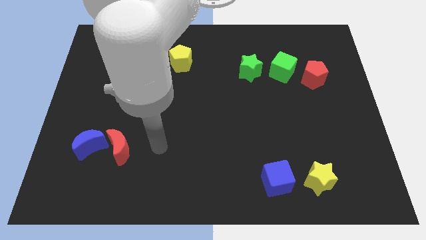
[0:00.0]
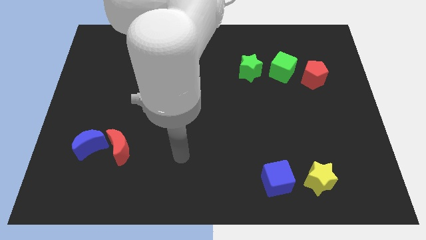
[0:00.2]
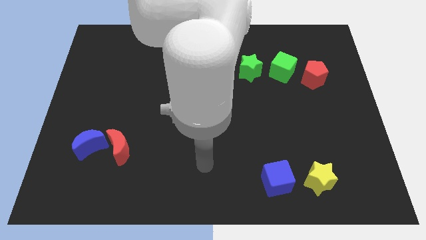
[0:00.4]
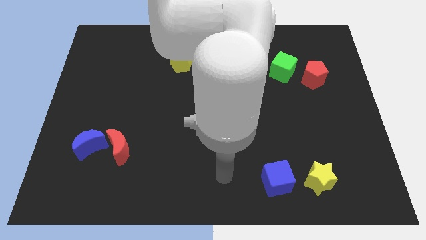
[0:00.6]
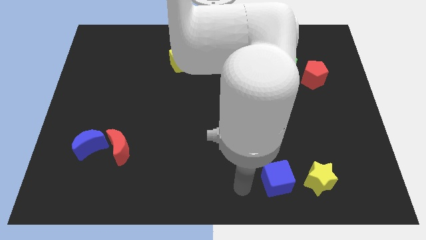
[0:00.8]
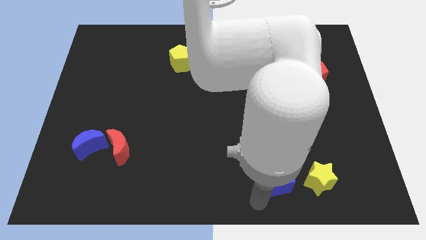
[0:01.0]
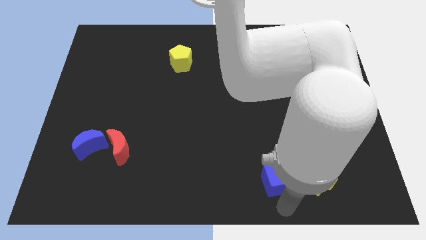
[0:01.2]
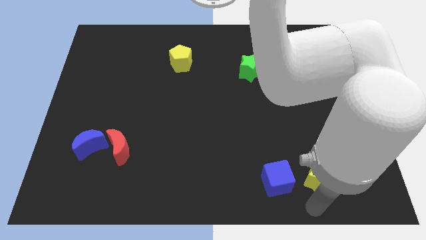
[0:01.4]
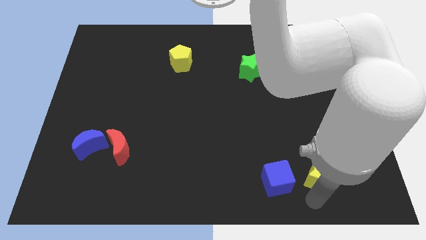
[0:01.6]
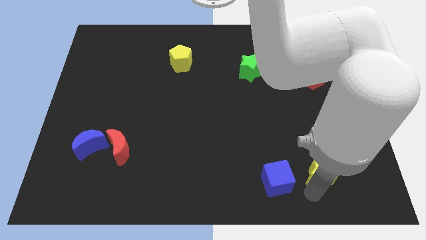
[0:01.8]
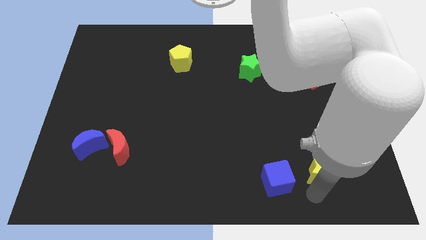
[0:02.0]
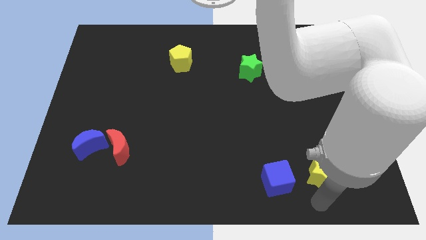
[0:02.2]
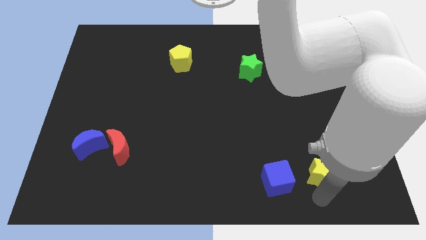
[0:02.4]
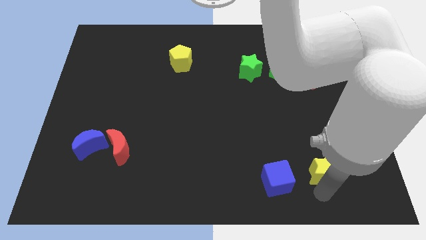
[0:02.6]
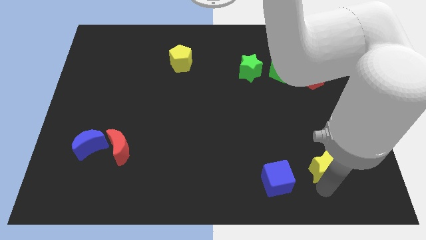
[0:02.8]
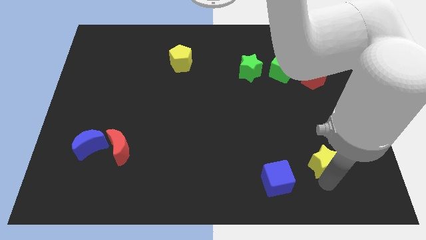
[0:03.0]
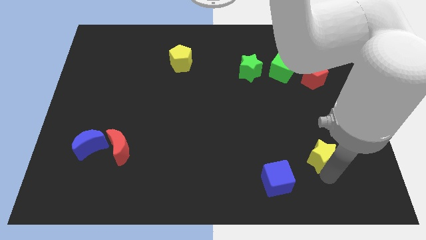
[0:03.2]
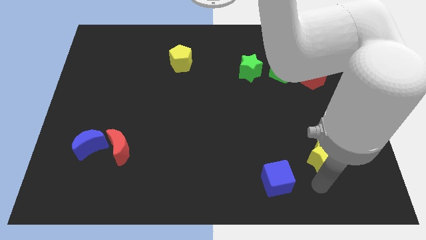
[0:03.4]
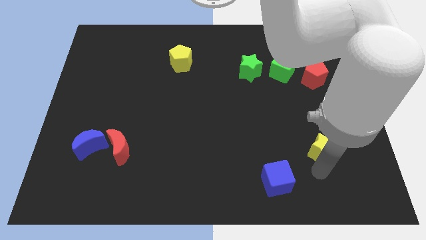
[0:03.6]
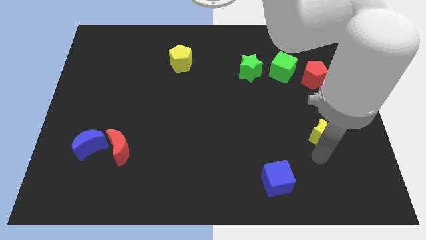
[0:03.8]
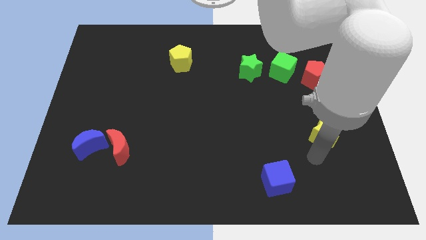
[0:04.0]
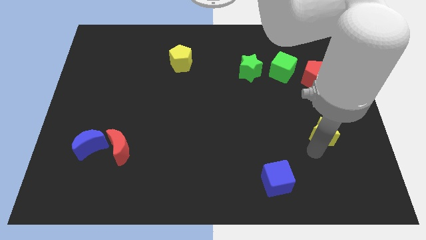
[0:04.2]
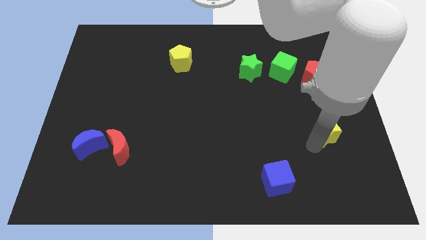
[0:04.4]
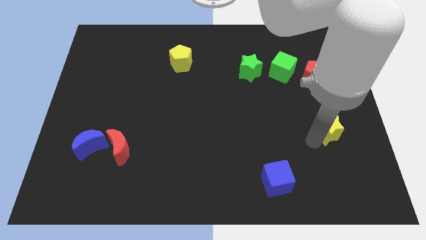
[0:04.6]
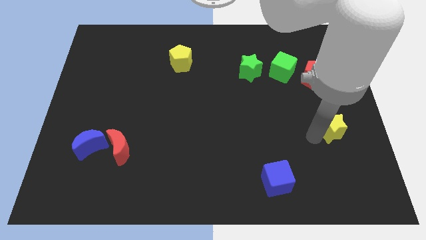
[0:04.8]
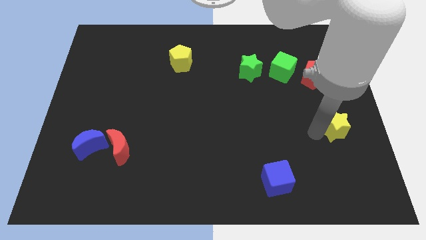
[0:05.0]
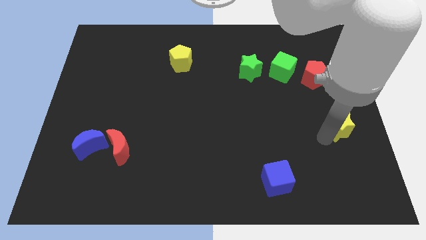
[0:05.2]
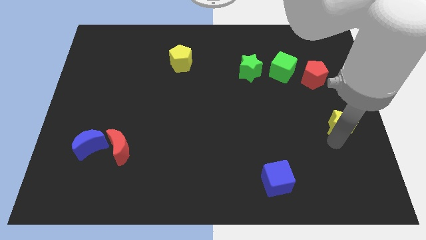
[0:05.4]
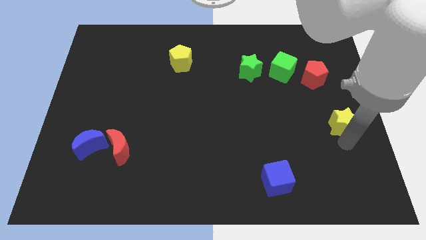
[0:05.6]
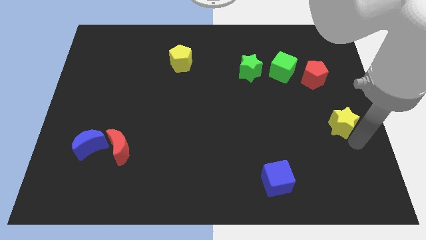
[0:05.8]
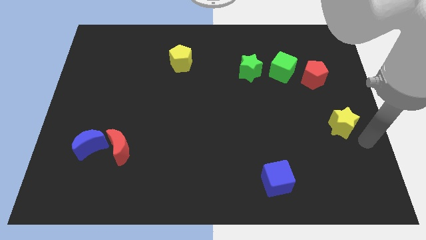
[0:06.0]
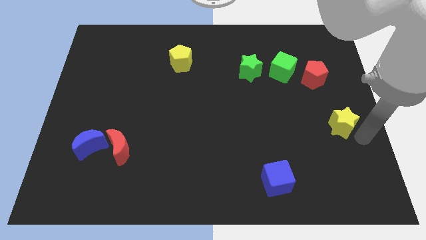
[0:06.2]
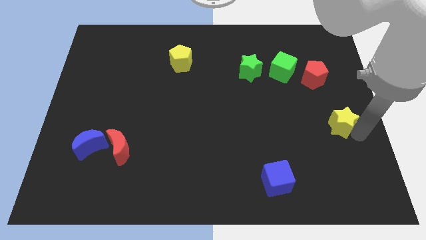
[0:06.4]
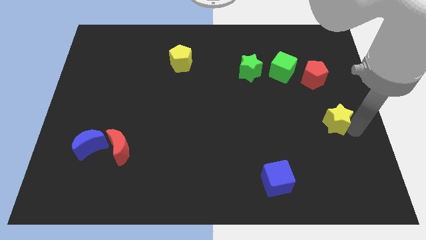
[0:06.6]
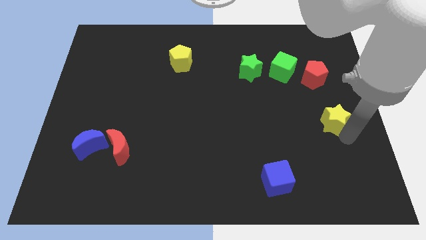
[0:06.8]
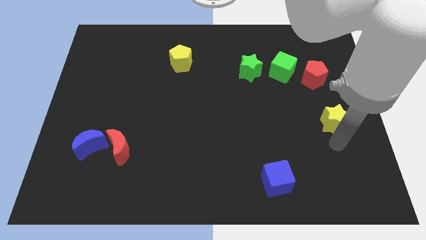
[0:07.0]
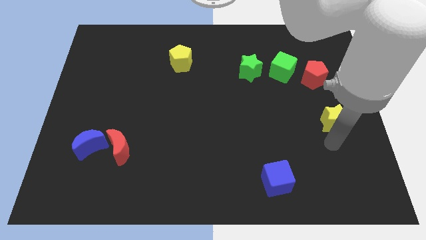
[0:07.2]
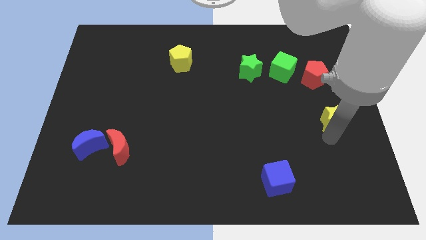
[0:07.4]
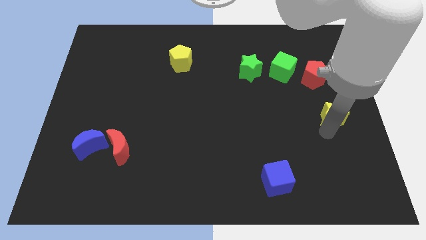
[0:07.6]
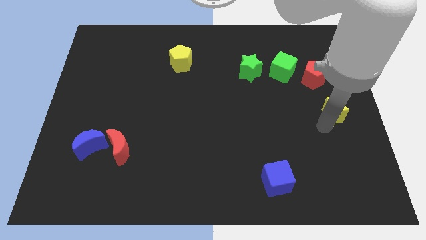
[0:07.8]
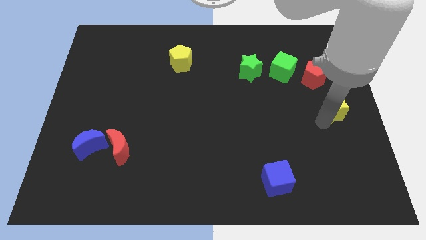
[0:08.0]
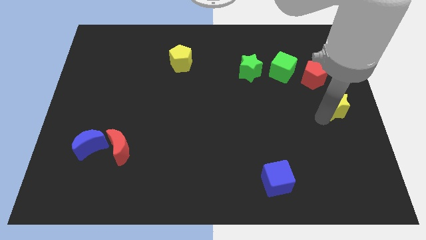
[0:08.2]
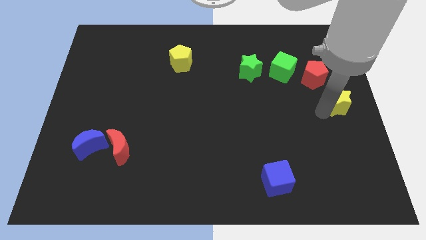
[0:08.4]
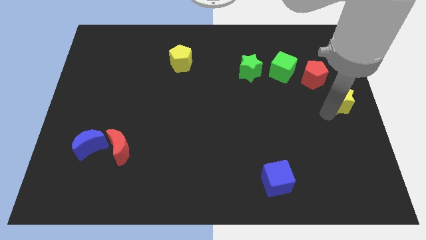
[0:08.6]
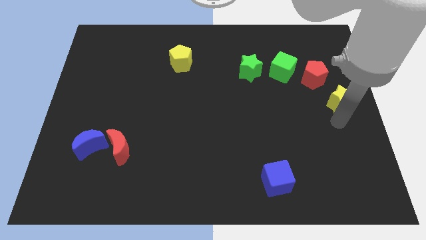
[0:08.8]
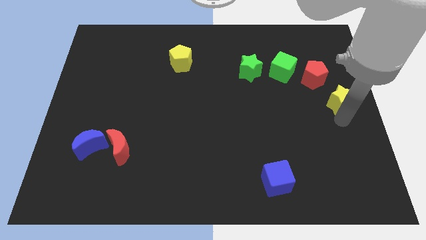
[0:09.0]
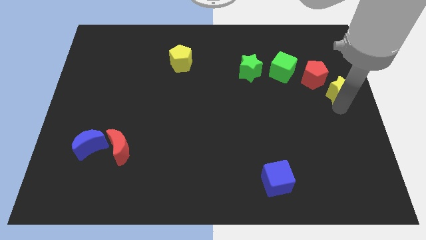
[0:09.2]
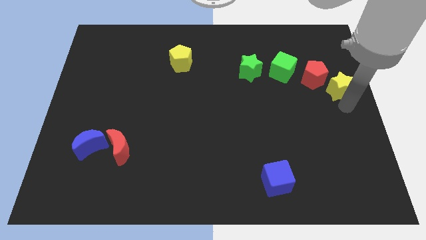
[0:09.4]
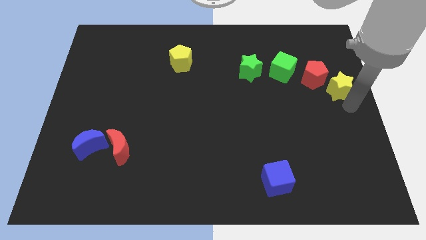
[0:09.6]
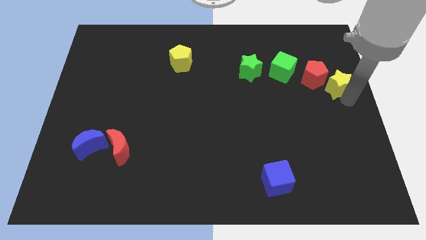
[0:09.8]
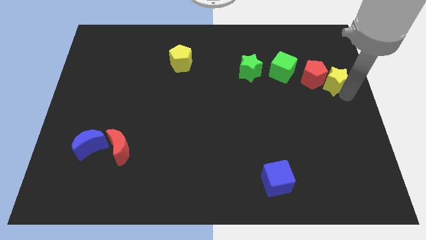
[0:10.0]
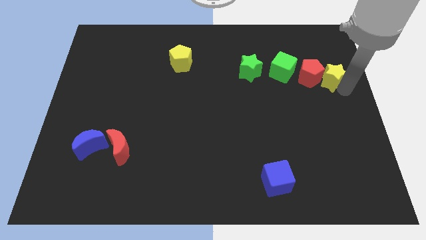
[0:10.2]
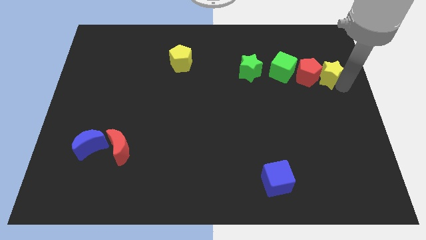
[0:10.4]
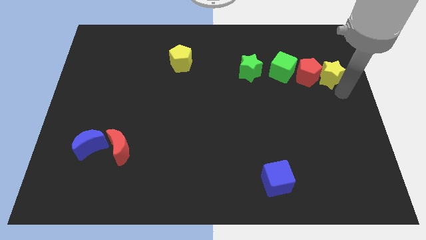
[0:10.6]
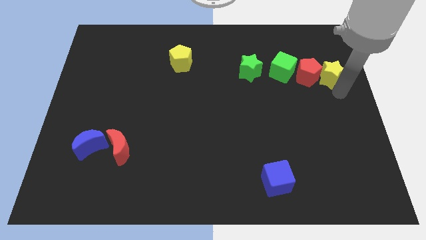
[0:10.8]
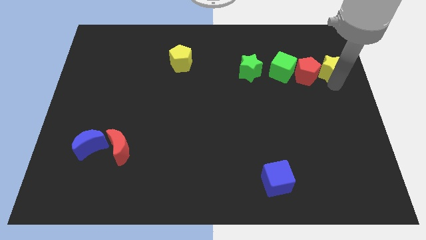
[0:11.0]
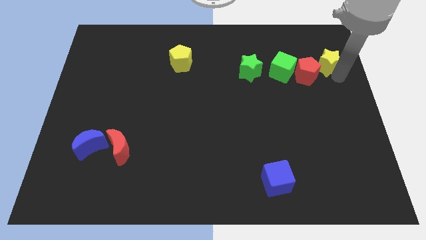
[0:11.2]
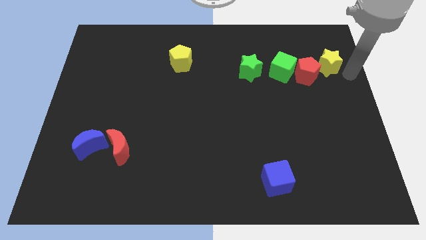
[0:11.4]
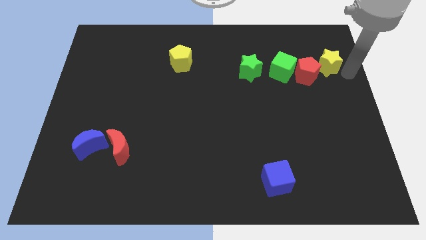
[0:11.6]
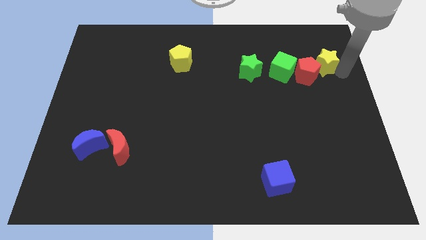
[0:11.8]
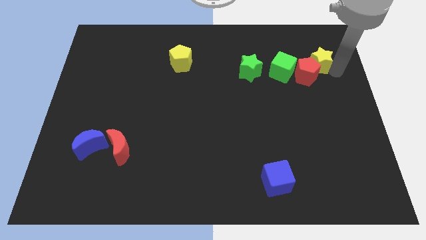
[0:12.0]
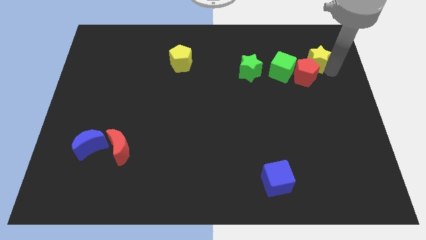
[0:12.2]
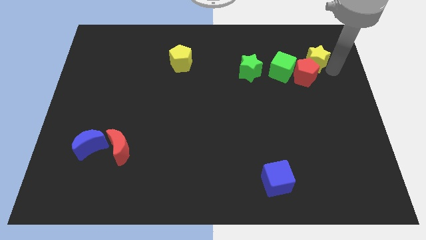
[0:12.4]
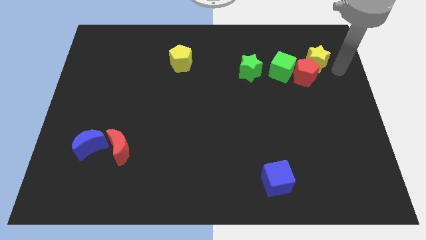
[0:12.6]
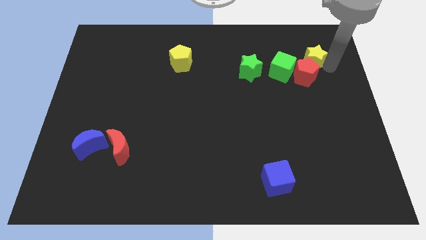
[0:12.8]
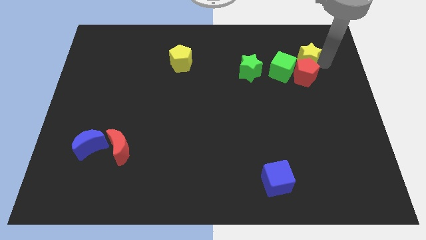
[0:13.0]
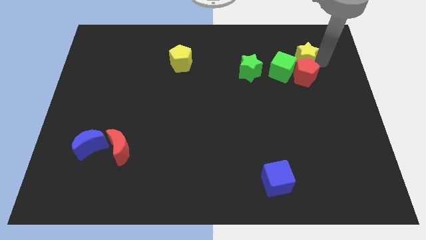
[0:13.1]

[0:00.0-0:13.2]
put the yellow star to the top left of the red pentagon

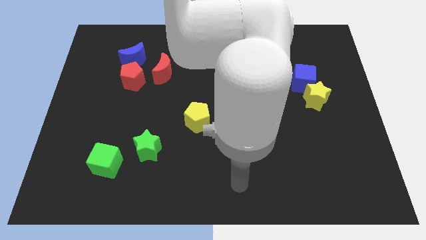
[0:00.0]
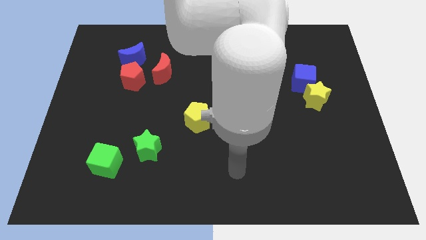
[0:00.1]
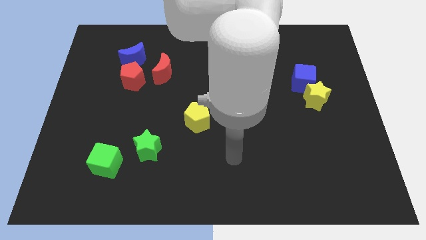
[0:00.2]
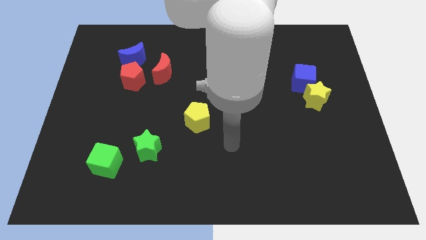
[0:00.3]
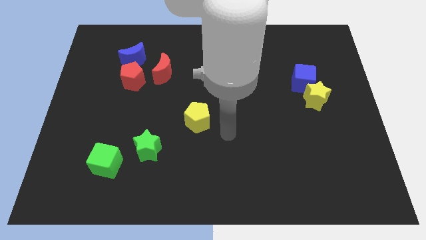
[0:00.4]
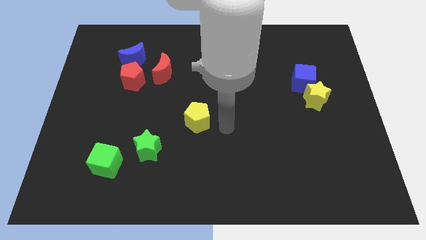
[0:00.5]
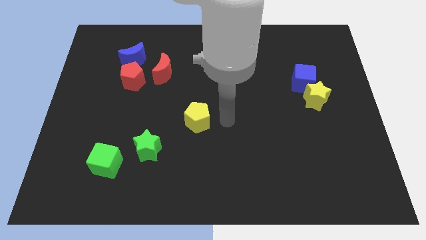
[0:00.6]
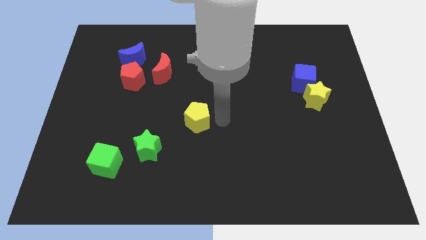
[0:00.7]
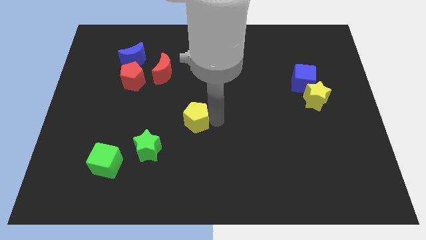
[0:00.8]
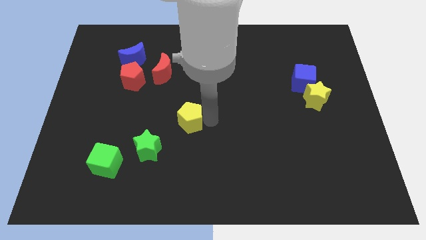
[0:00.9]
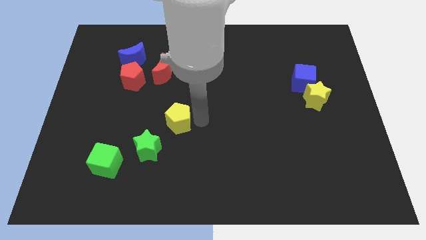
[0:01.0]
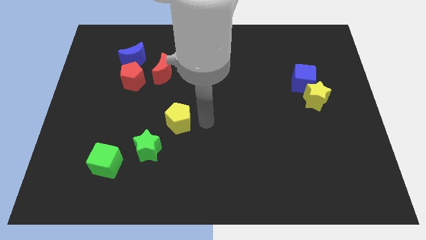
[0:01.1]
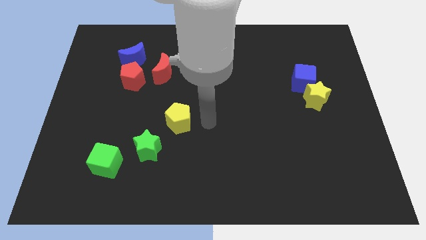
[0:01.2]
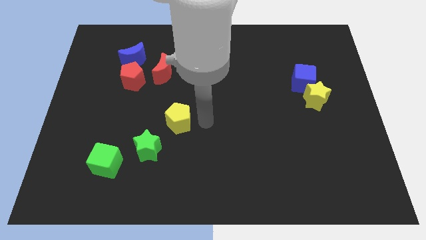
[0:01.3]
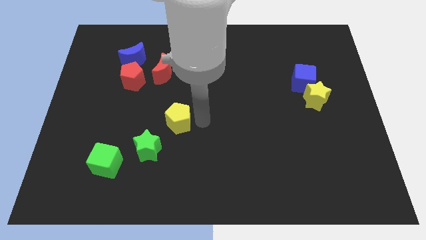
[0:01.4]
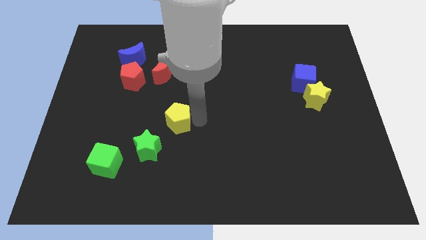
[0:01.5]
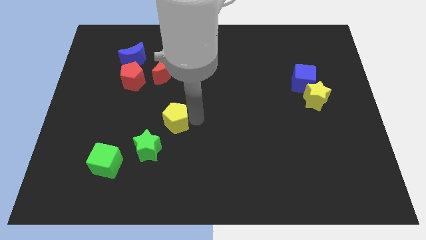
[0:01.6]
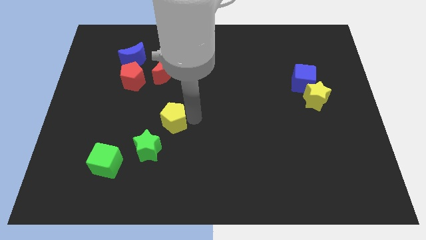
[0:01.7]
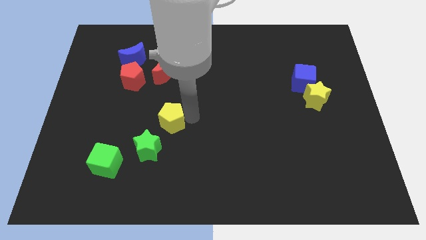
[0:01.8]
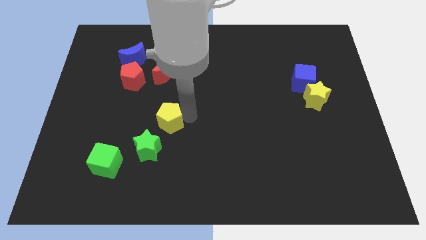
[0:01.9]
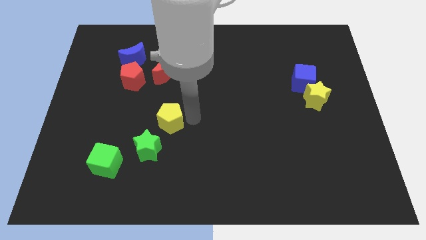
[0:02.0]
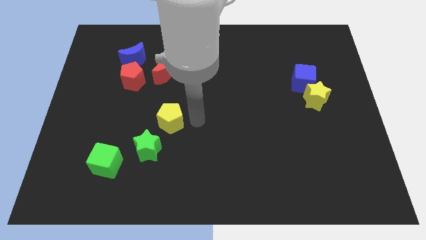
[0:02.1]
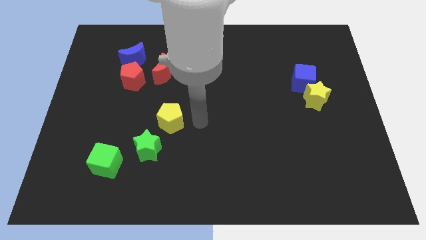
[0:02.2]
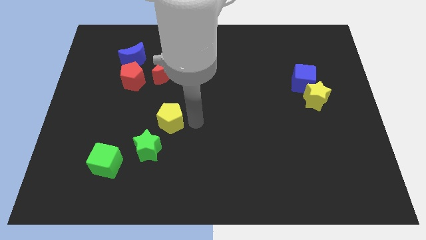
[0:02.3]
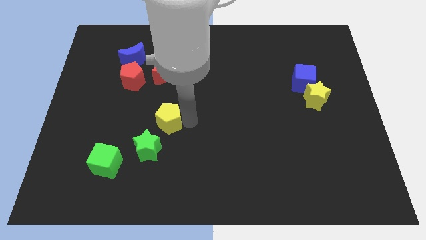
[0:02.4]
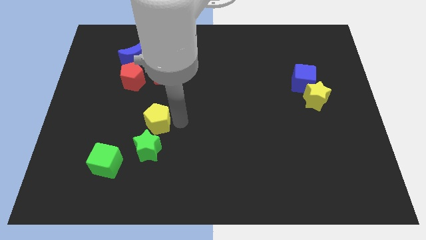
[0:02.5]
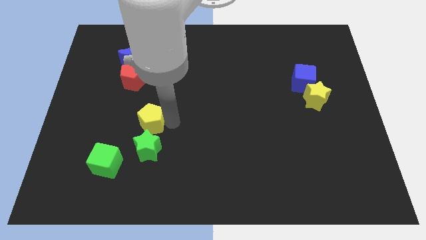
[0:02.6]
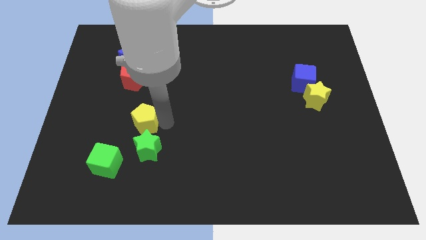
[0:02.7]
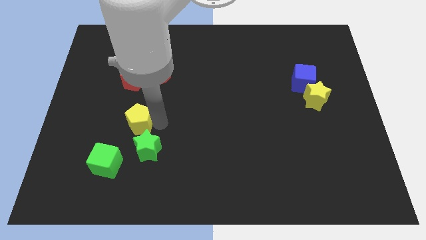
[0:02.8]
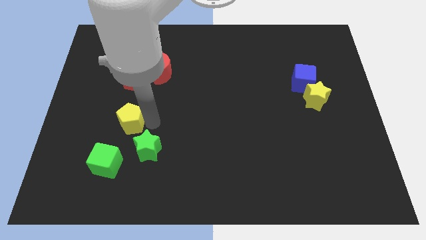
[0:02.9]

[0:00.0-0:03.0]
move the yellow pentagon above the green cube
